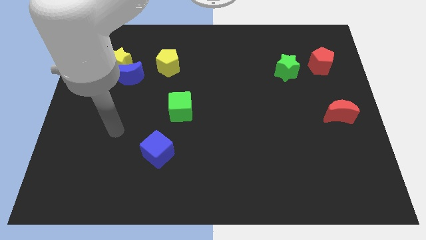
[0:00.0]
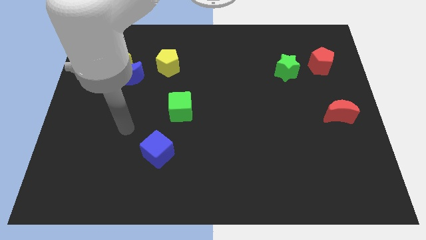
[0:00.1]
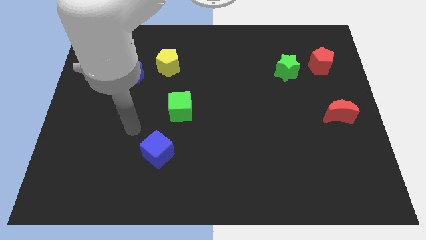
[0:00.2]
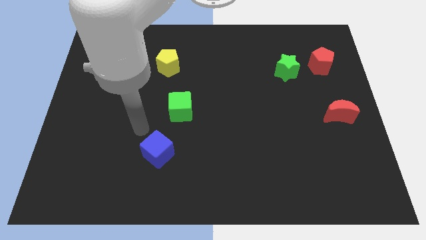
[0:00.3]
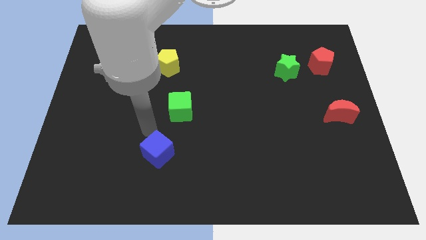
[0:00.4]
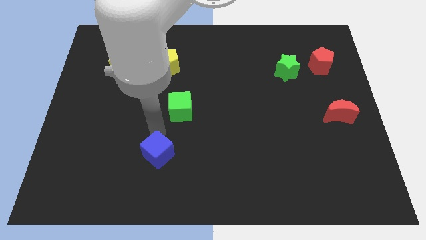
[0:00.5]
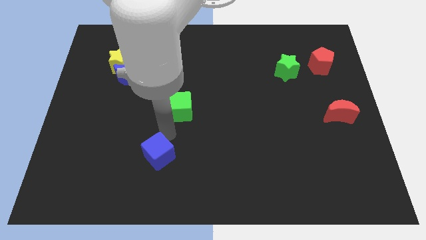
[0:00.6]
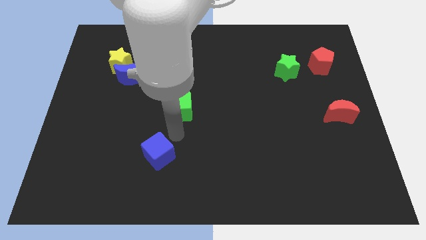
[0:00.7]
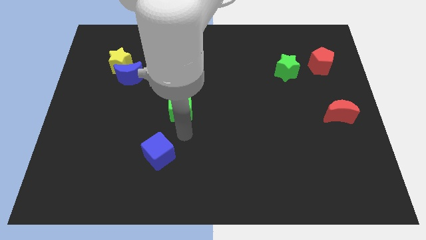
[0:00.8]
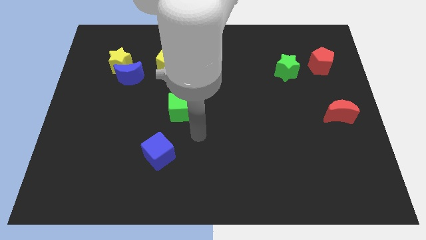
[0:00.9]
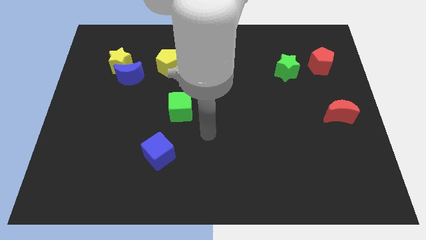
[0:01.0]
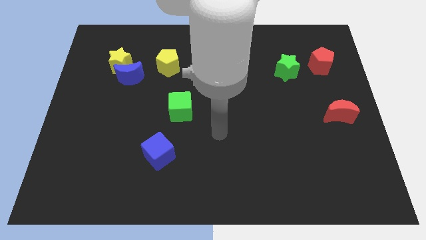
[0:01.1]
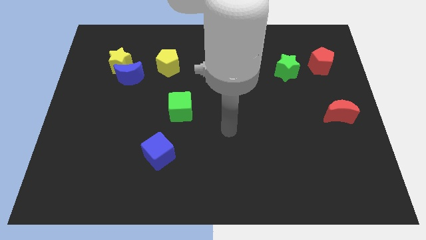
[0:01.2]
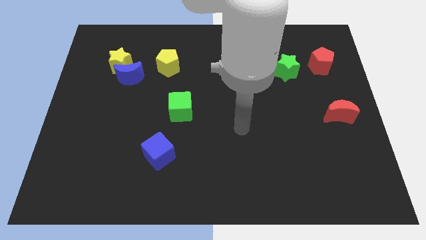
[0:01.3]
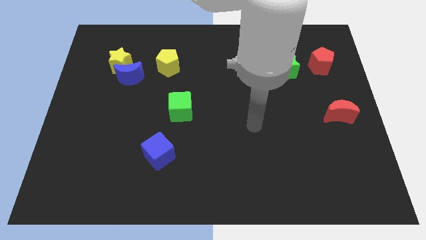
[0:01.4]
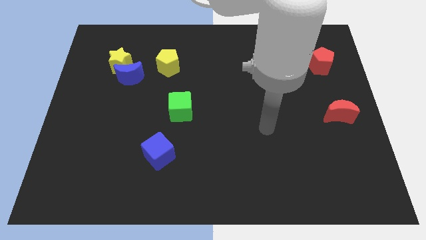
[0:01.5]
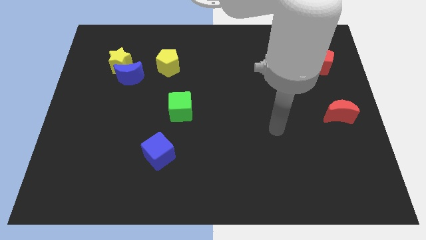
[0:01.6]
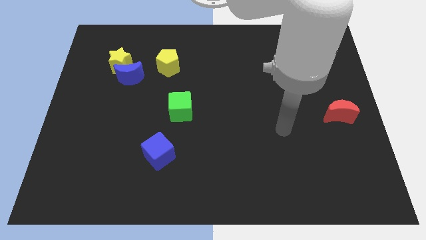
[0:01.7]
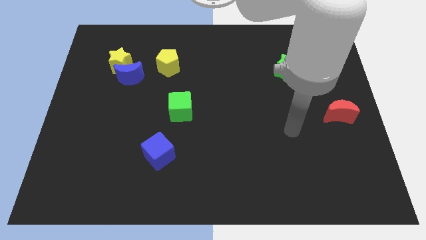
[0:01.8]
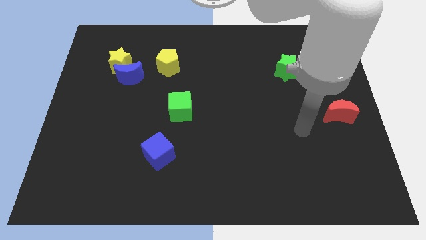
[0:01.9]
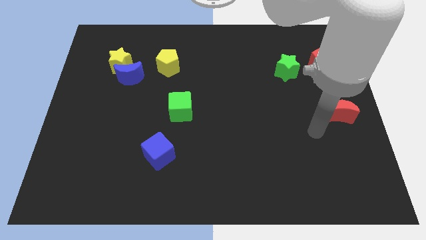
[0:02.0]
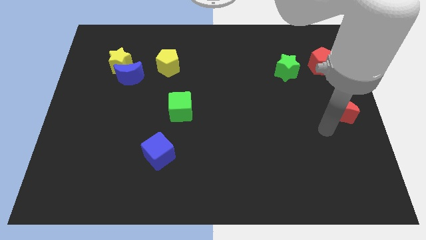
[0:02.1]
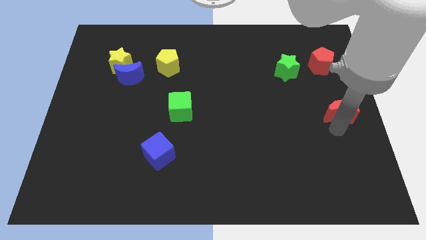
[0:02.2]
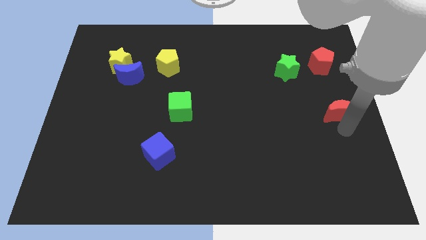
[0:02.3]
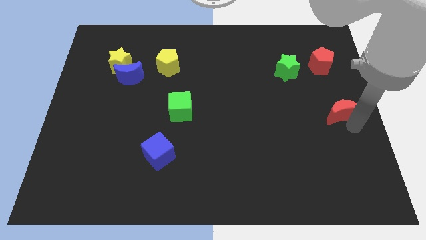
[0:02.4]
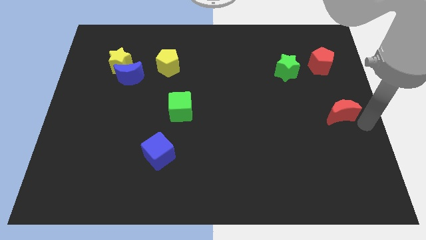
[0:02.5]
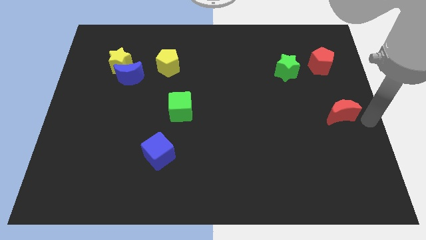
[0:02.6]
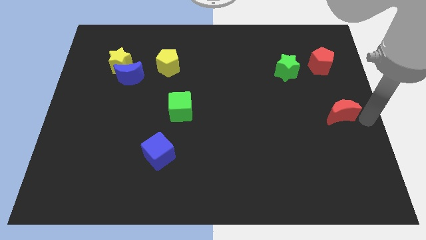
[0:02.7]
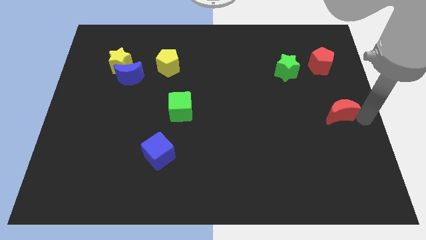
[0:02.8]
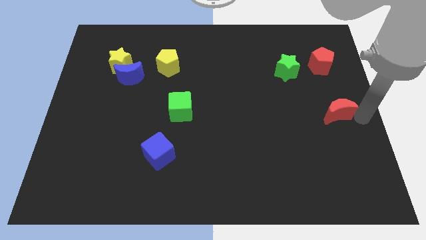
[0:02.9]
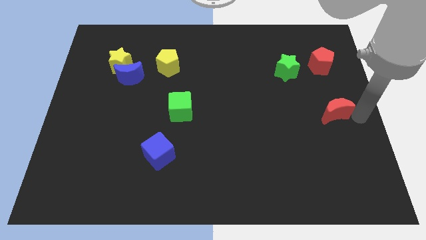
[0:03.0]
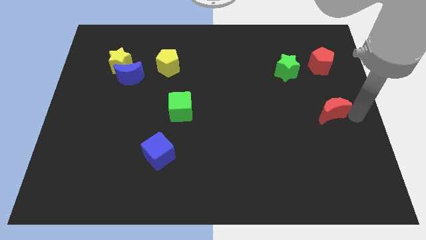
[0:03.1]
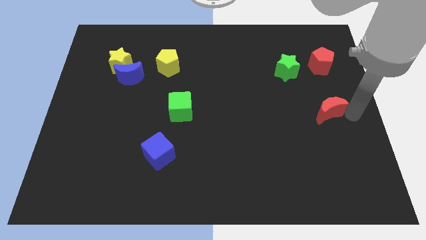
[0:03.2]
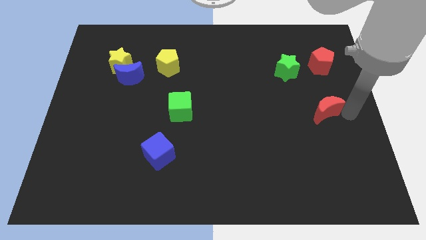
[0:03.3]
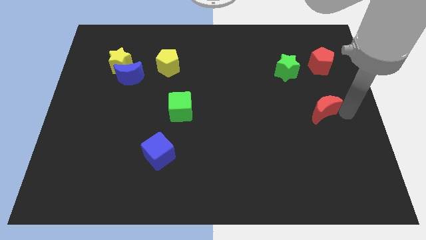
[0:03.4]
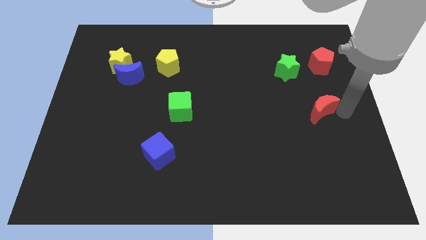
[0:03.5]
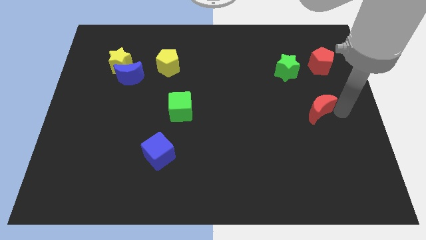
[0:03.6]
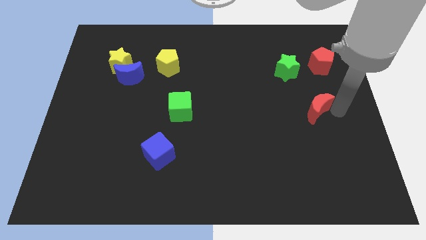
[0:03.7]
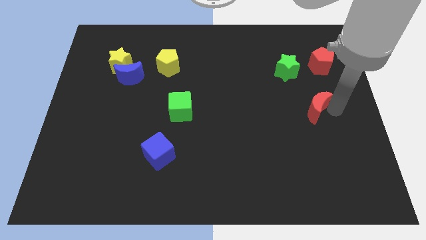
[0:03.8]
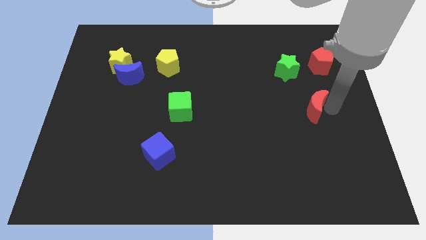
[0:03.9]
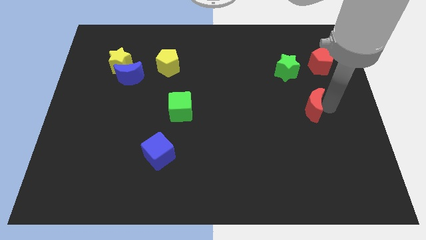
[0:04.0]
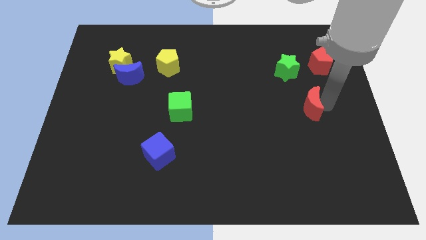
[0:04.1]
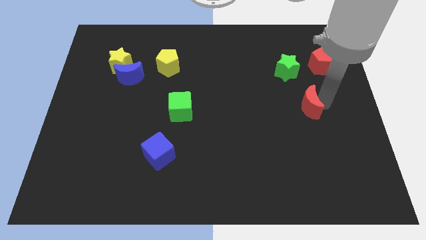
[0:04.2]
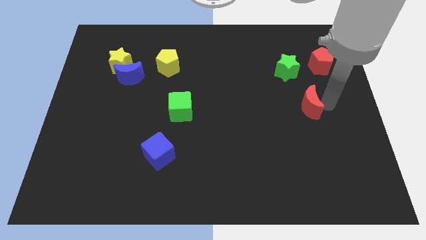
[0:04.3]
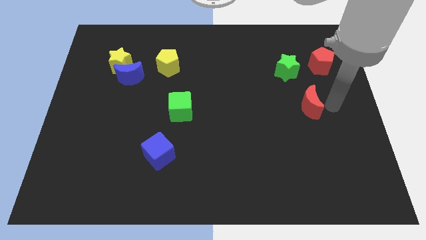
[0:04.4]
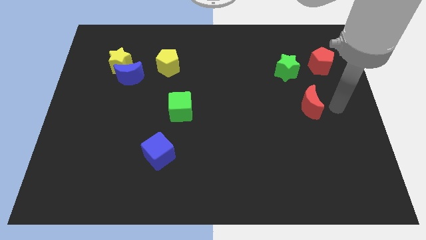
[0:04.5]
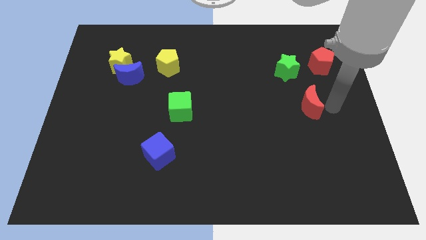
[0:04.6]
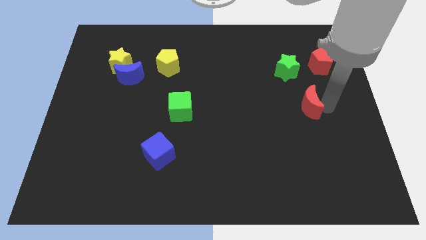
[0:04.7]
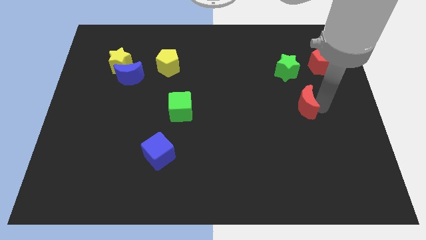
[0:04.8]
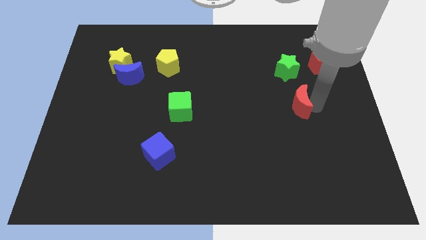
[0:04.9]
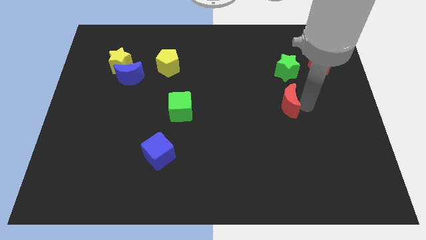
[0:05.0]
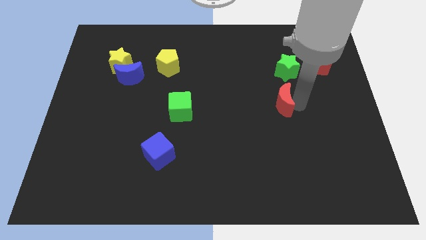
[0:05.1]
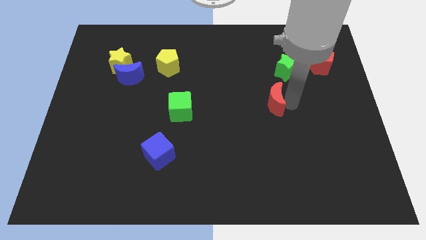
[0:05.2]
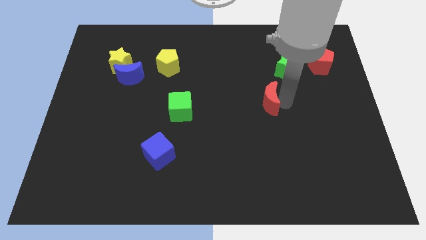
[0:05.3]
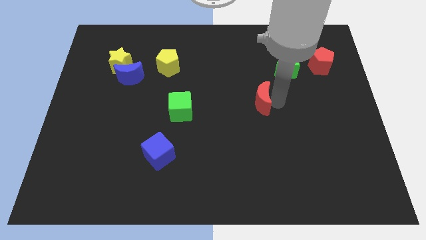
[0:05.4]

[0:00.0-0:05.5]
slide the red moon to the center

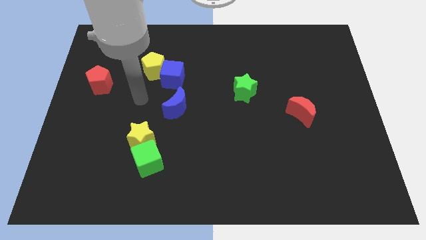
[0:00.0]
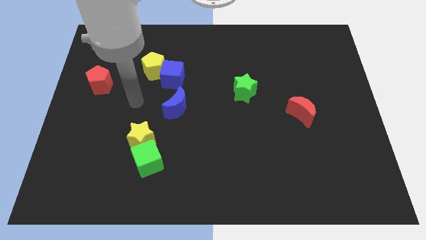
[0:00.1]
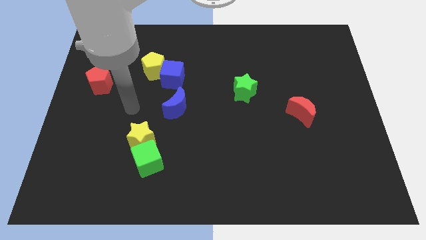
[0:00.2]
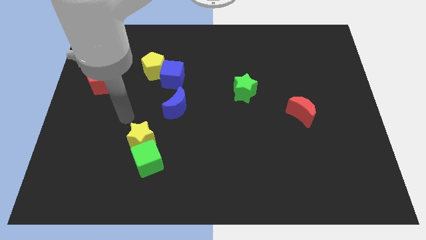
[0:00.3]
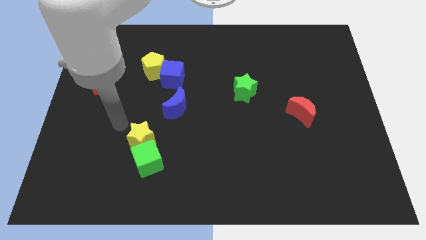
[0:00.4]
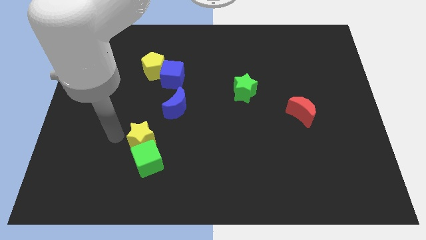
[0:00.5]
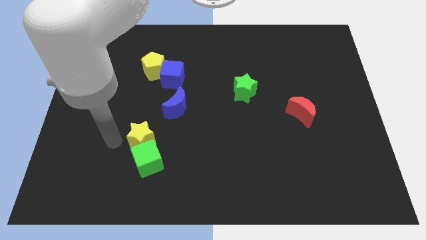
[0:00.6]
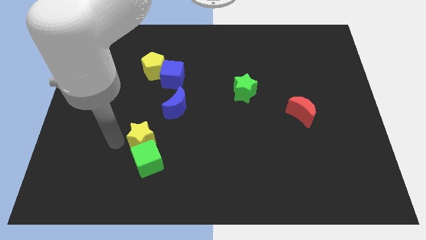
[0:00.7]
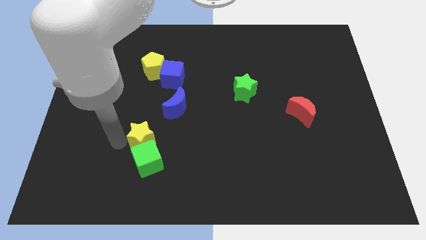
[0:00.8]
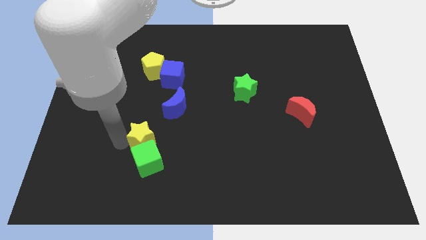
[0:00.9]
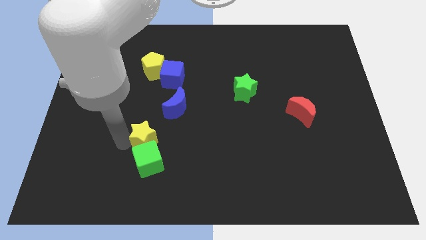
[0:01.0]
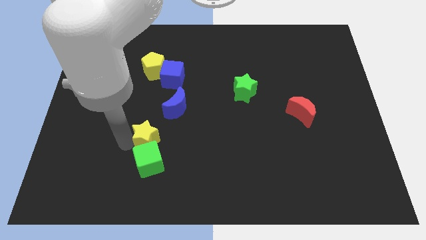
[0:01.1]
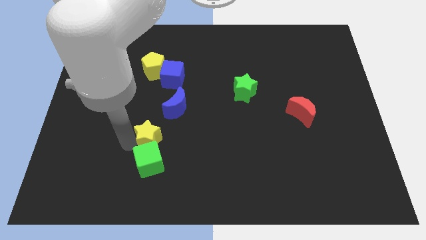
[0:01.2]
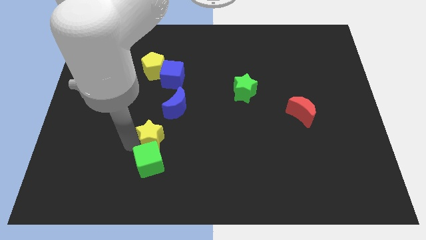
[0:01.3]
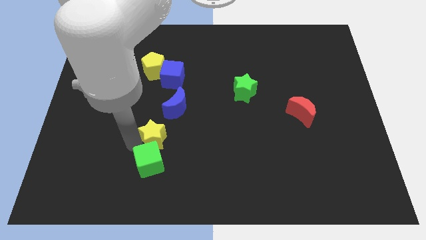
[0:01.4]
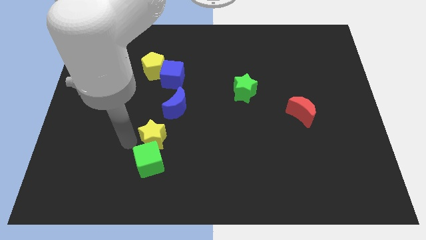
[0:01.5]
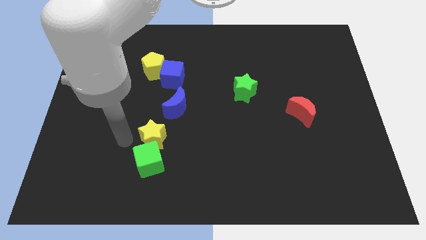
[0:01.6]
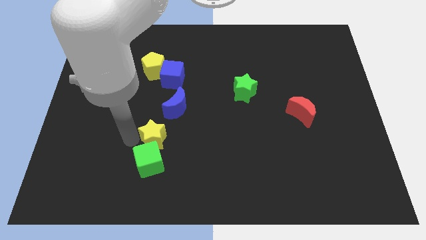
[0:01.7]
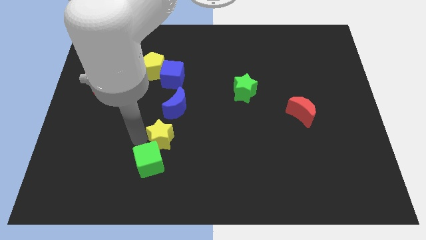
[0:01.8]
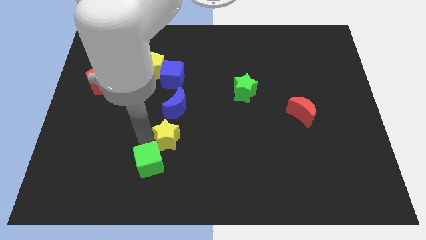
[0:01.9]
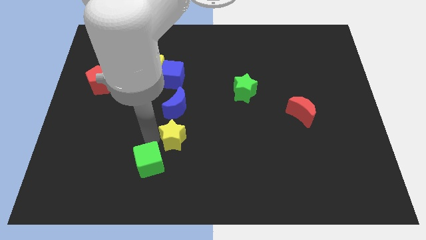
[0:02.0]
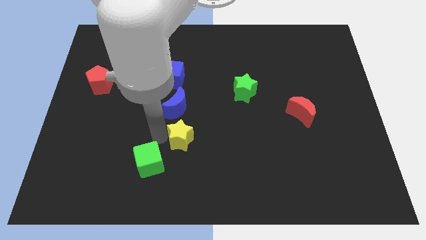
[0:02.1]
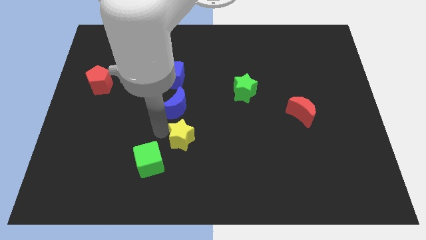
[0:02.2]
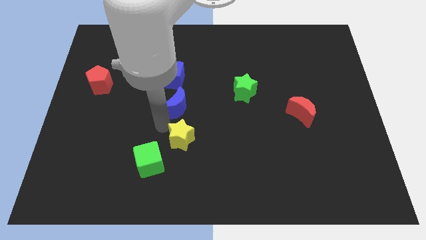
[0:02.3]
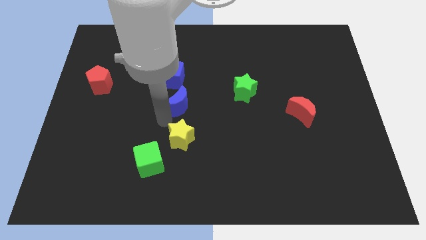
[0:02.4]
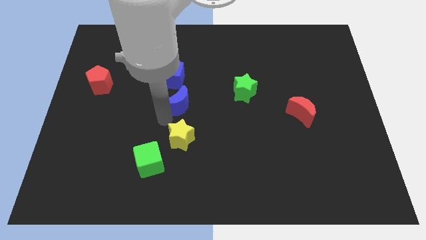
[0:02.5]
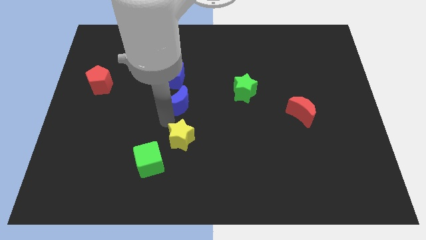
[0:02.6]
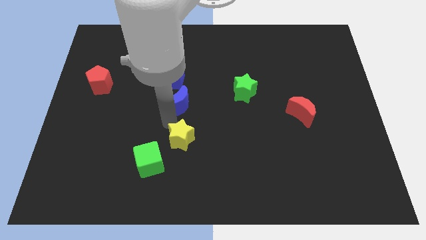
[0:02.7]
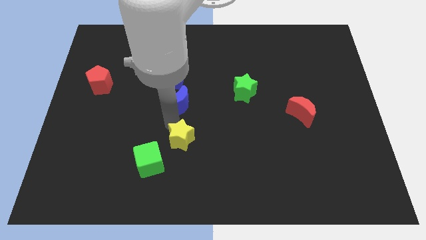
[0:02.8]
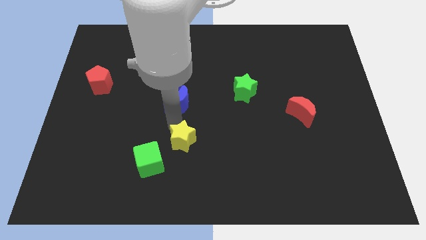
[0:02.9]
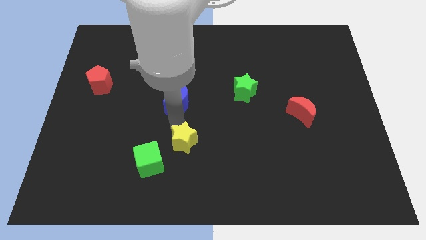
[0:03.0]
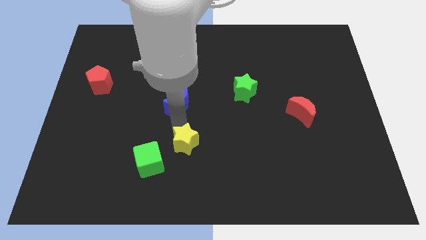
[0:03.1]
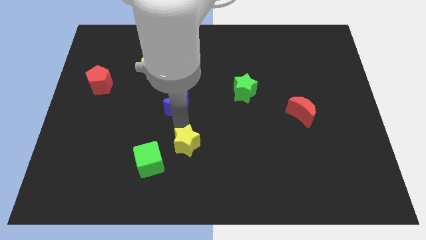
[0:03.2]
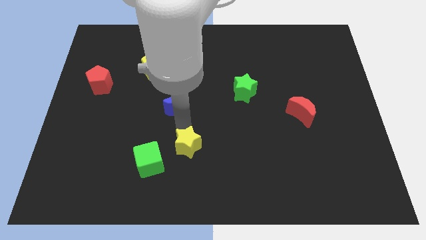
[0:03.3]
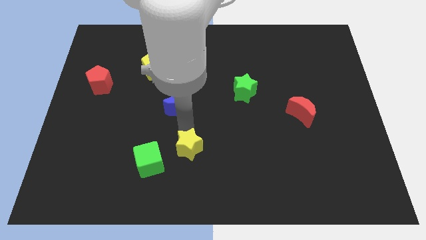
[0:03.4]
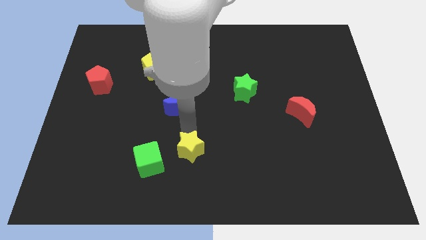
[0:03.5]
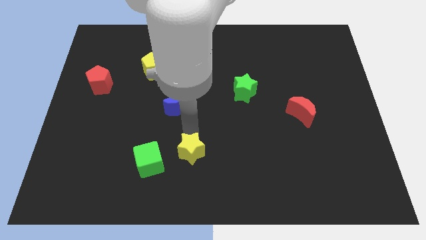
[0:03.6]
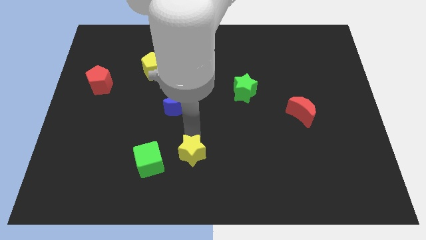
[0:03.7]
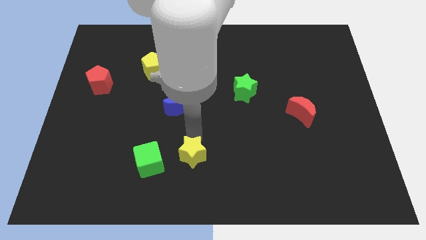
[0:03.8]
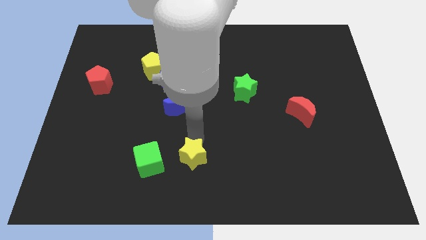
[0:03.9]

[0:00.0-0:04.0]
move the yellow star to the bottom side
